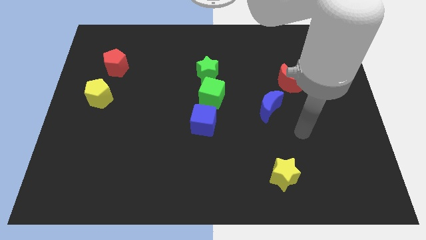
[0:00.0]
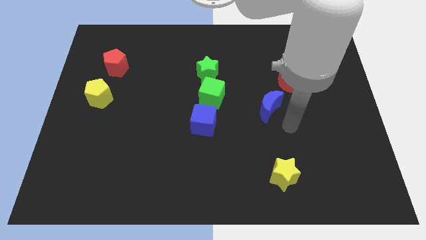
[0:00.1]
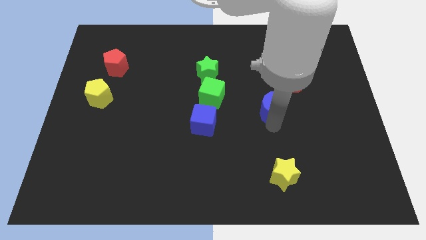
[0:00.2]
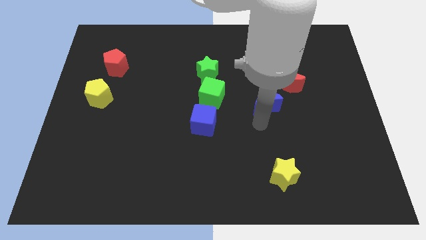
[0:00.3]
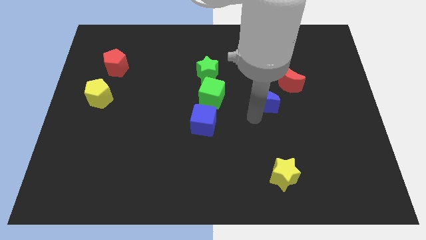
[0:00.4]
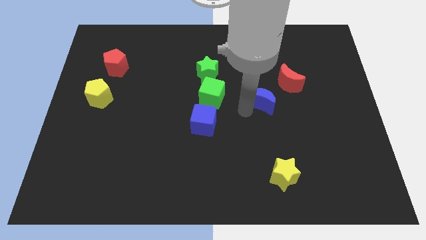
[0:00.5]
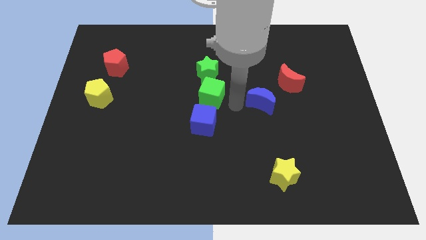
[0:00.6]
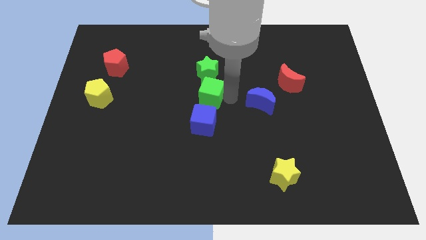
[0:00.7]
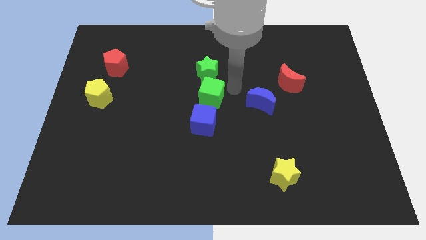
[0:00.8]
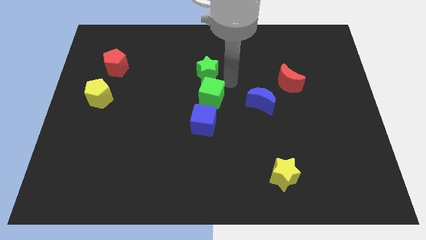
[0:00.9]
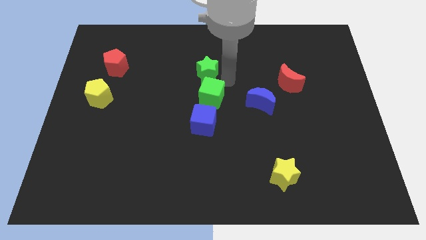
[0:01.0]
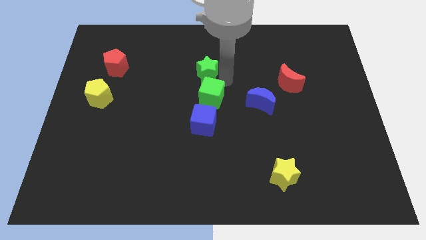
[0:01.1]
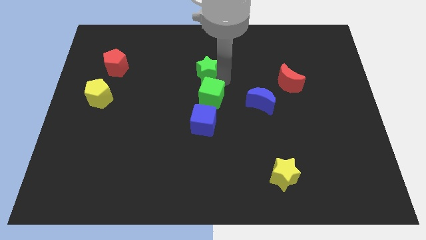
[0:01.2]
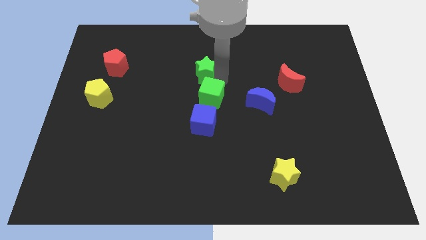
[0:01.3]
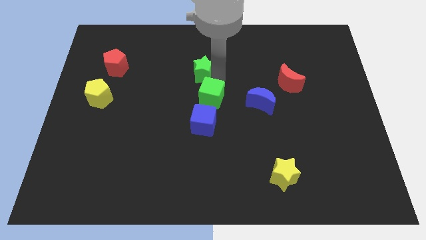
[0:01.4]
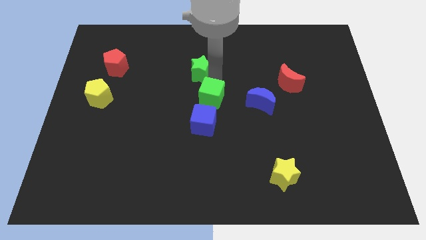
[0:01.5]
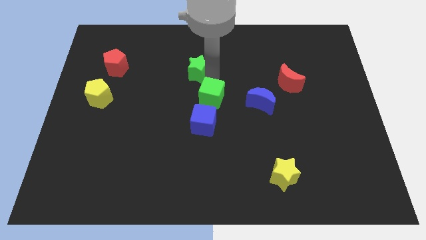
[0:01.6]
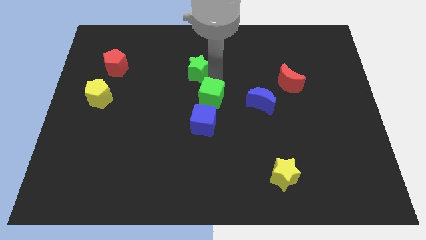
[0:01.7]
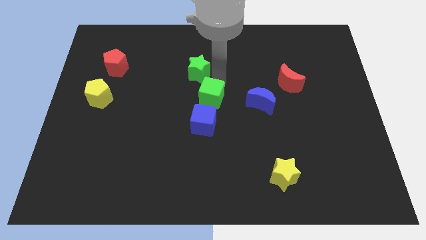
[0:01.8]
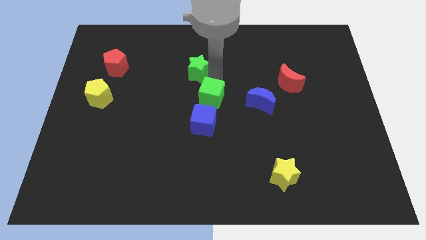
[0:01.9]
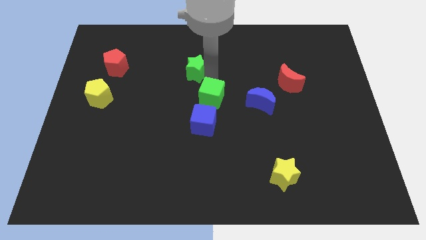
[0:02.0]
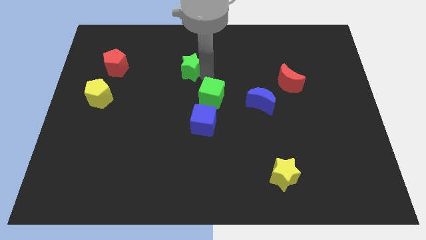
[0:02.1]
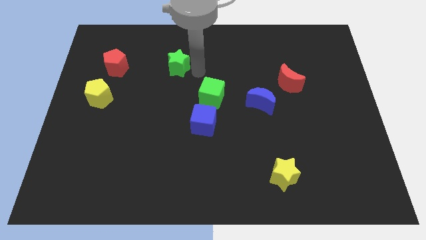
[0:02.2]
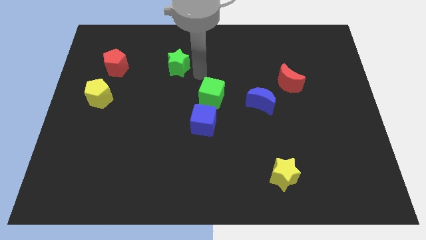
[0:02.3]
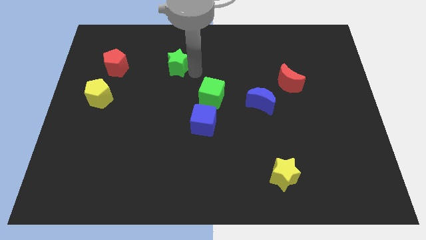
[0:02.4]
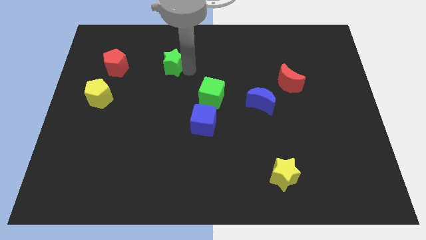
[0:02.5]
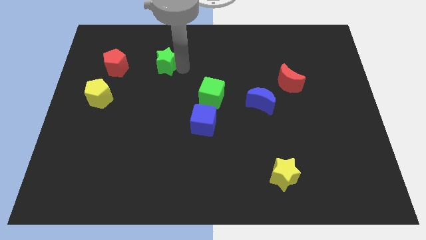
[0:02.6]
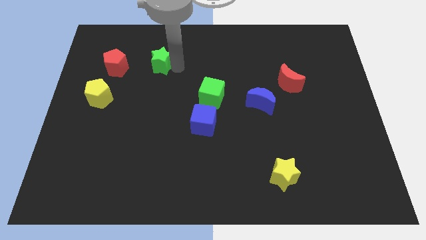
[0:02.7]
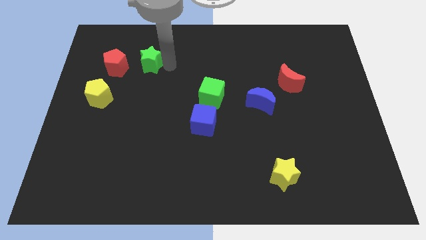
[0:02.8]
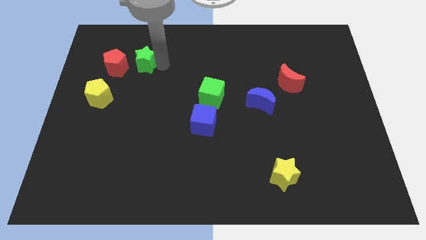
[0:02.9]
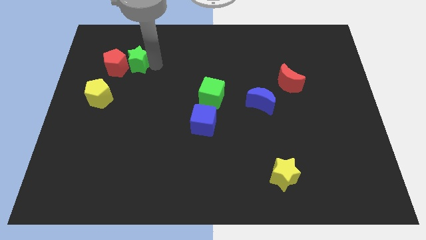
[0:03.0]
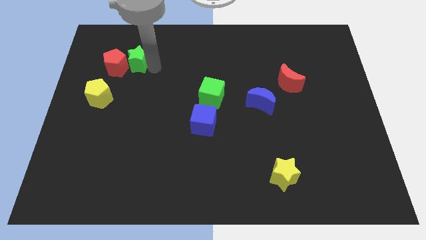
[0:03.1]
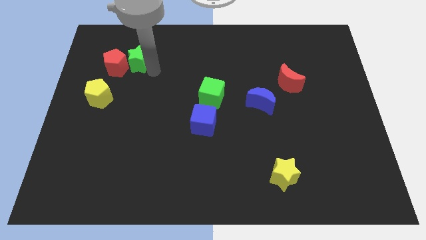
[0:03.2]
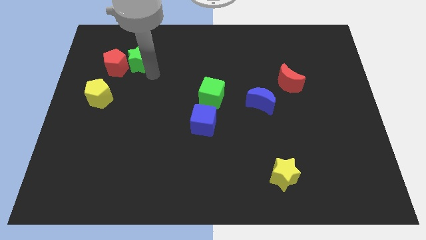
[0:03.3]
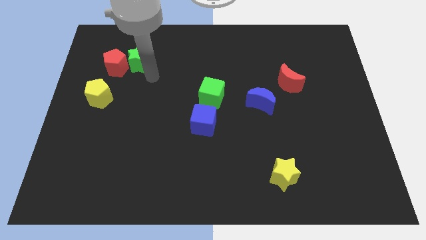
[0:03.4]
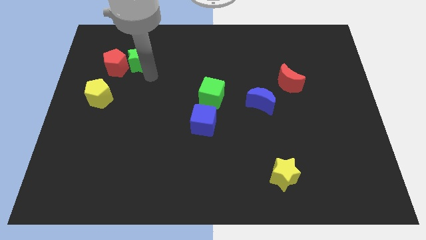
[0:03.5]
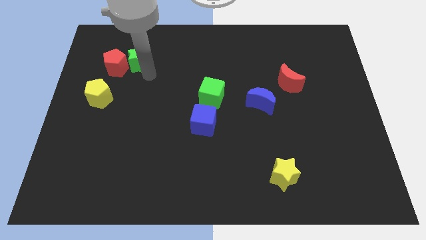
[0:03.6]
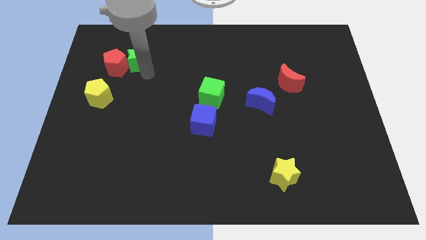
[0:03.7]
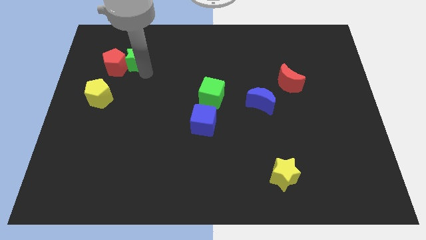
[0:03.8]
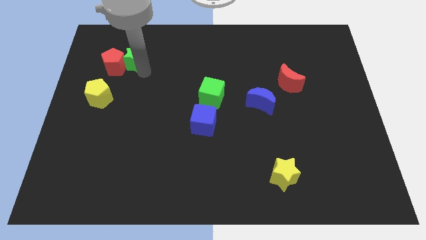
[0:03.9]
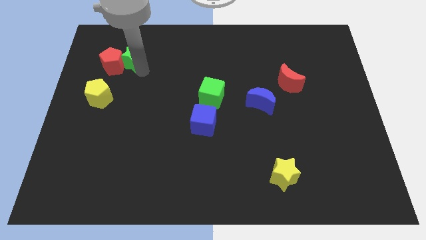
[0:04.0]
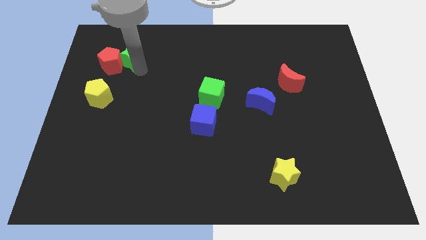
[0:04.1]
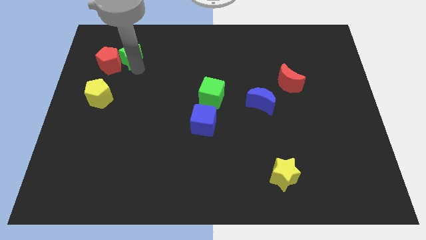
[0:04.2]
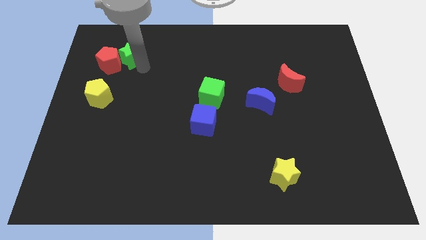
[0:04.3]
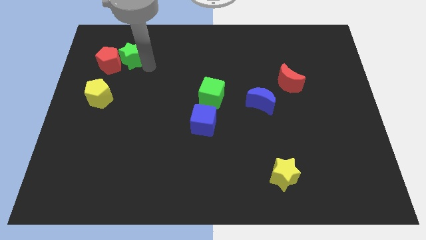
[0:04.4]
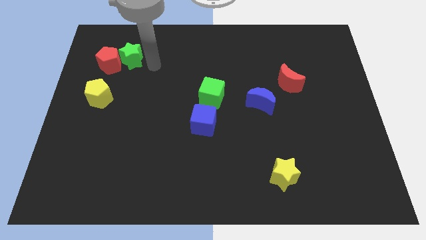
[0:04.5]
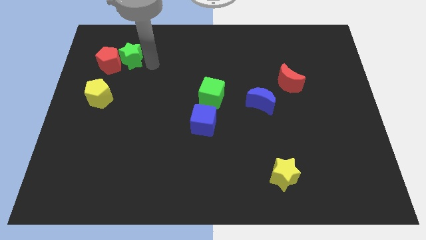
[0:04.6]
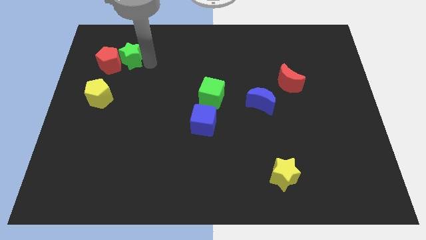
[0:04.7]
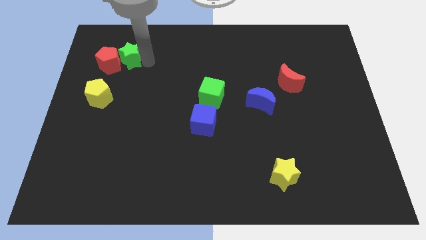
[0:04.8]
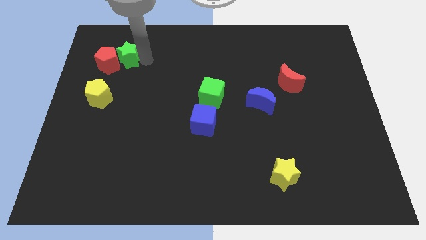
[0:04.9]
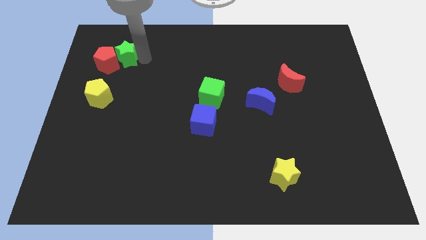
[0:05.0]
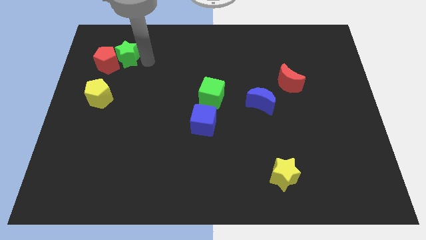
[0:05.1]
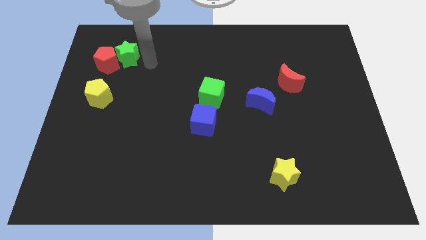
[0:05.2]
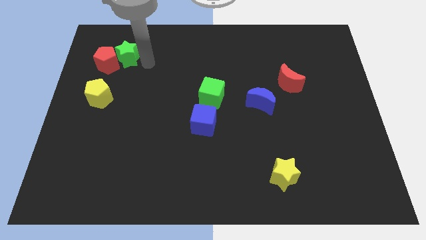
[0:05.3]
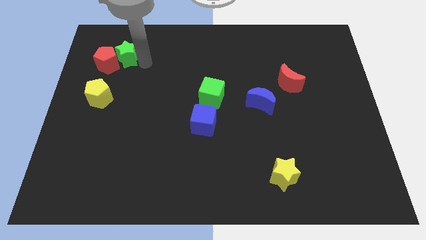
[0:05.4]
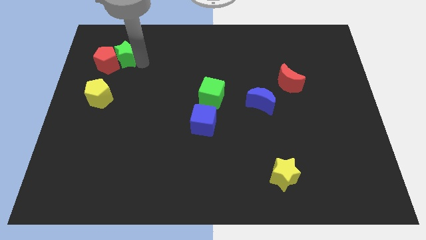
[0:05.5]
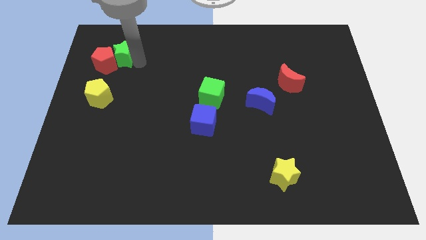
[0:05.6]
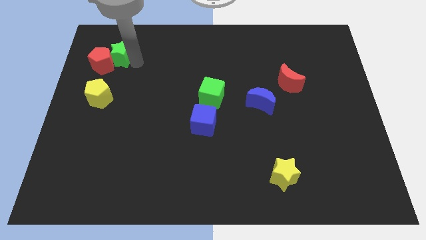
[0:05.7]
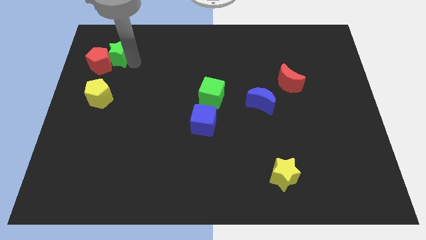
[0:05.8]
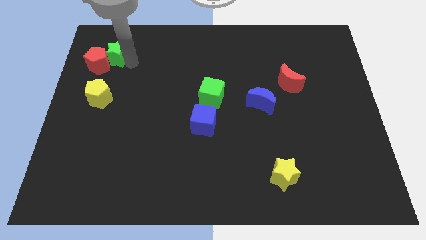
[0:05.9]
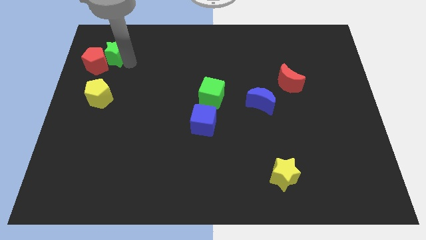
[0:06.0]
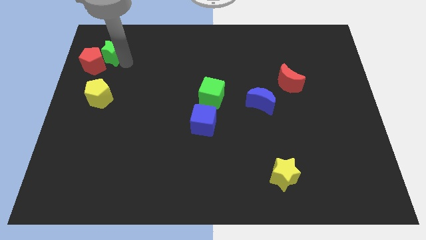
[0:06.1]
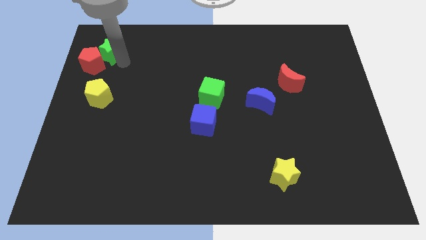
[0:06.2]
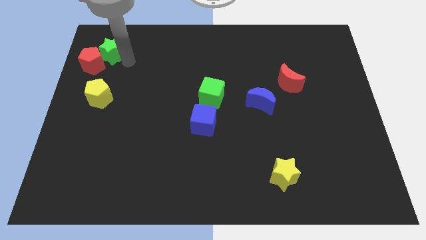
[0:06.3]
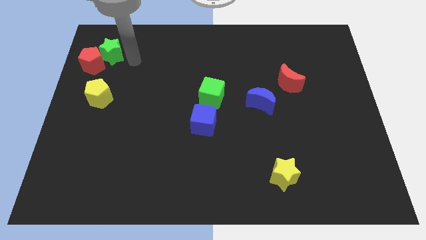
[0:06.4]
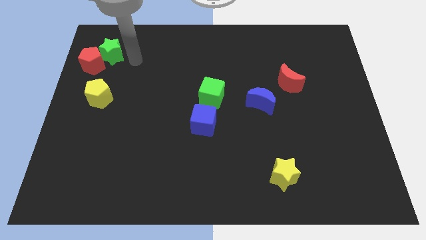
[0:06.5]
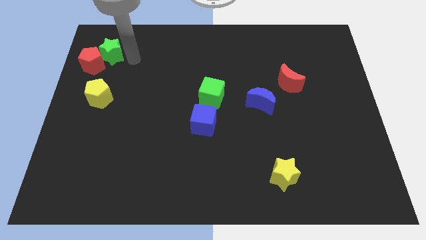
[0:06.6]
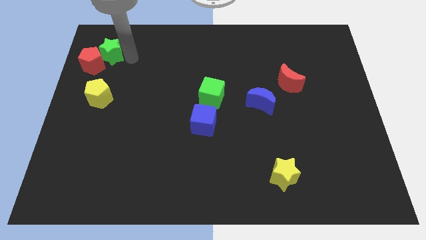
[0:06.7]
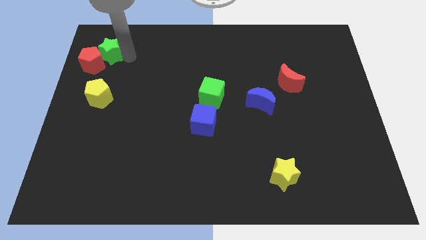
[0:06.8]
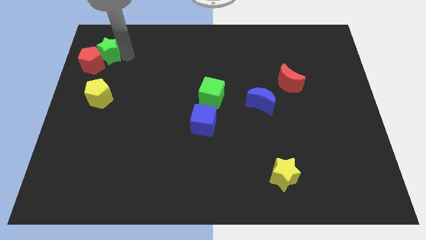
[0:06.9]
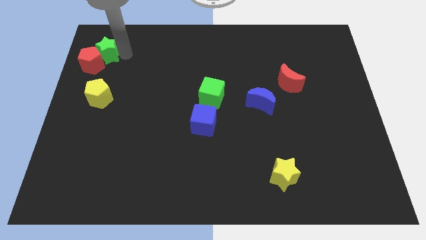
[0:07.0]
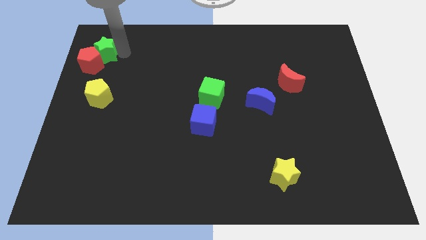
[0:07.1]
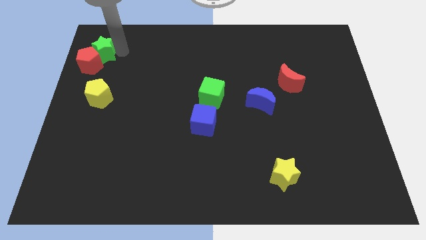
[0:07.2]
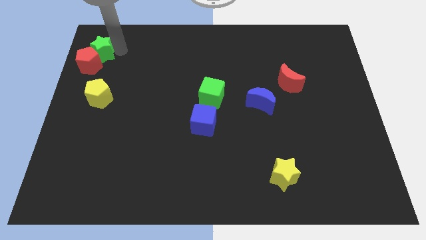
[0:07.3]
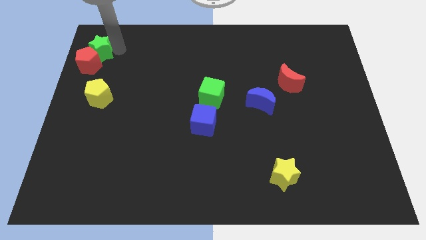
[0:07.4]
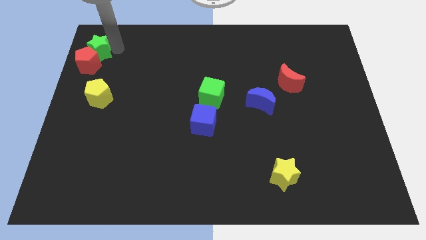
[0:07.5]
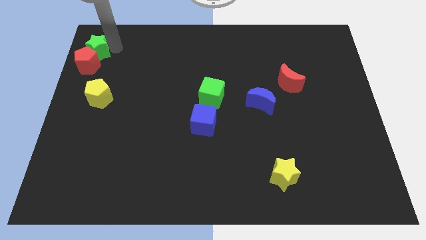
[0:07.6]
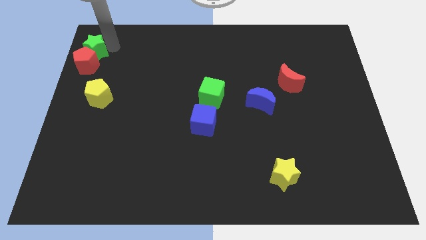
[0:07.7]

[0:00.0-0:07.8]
slide the green star to the top left corner
